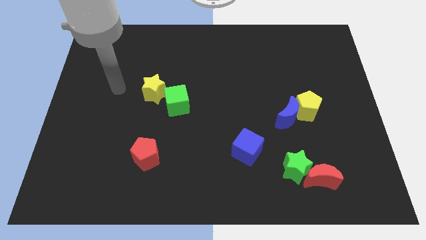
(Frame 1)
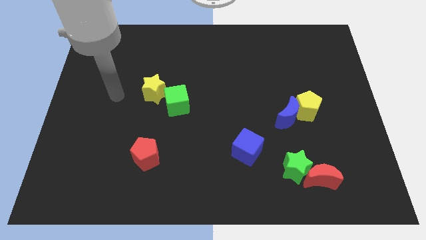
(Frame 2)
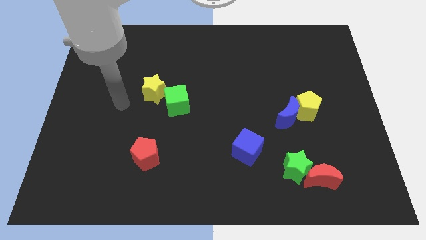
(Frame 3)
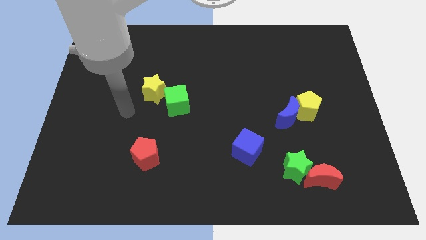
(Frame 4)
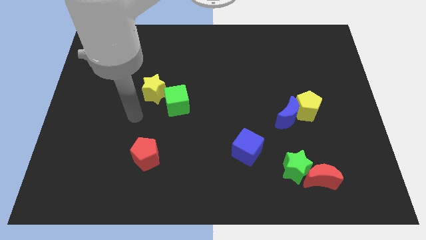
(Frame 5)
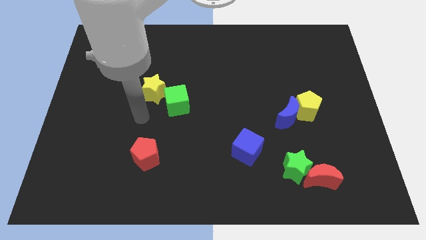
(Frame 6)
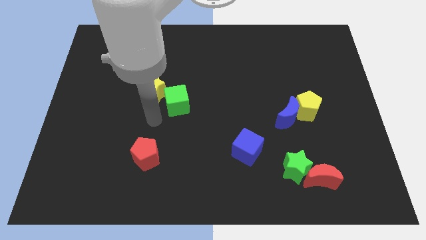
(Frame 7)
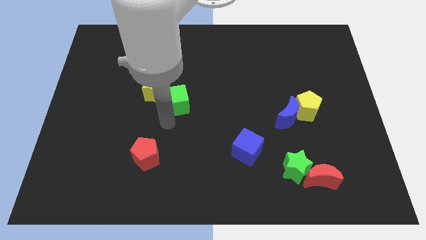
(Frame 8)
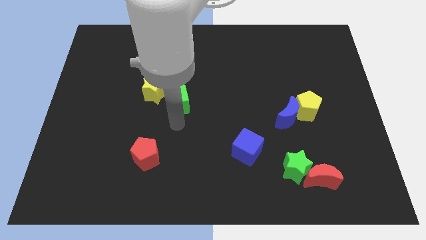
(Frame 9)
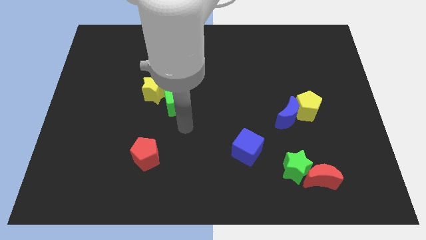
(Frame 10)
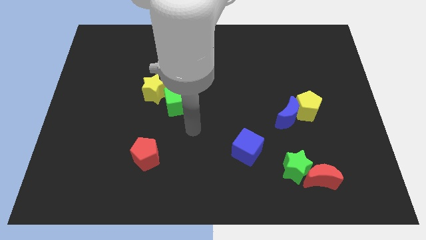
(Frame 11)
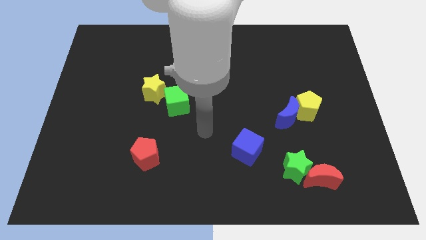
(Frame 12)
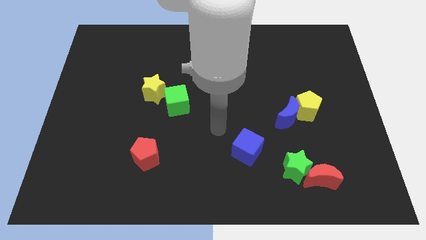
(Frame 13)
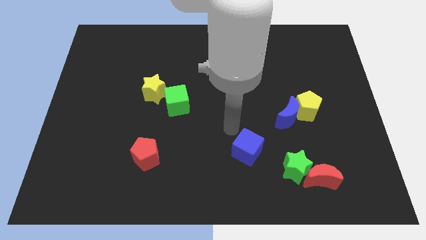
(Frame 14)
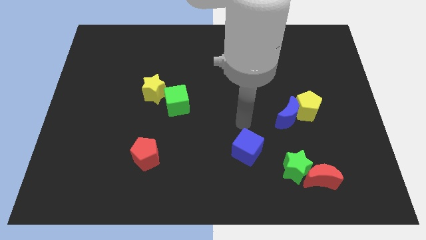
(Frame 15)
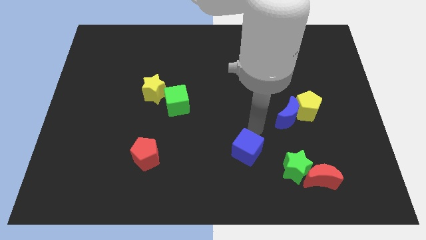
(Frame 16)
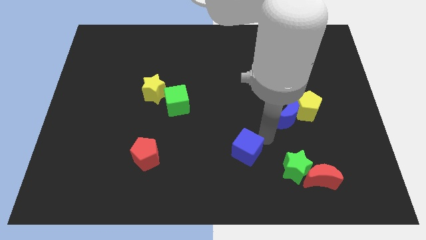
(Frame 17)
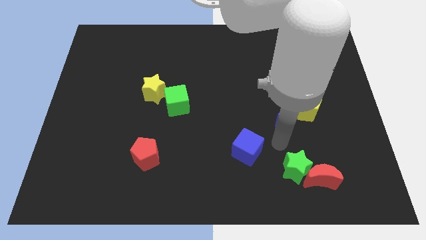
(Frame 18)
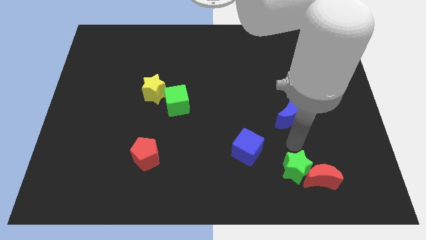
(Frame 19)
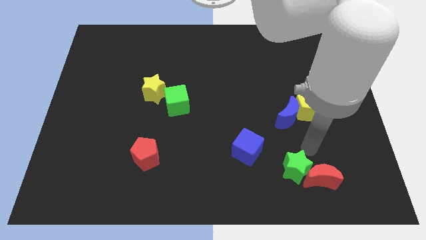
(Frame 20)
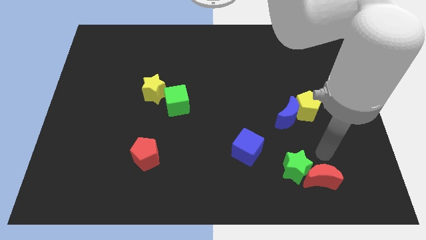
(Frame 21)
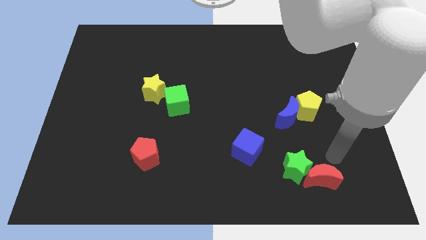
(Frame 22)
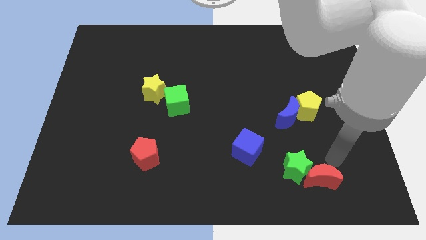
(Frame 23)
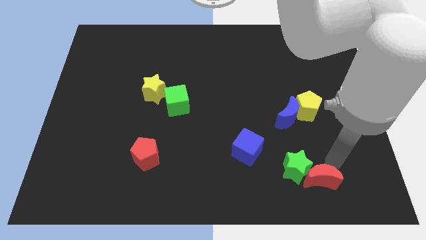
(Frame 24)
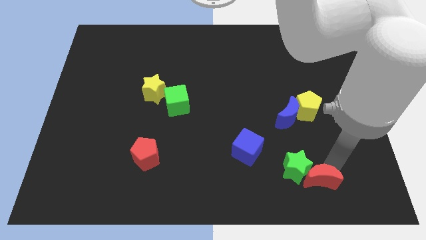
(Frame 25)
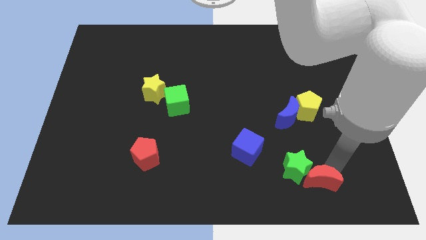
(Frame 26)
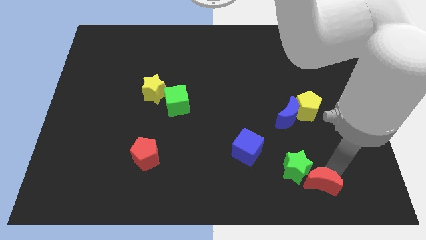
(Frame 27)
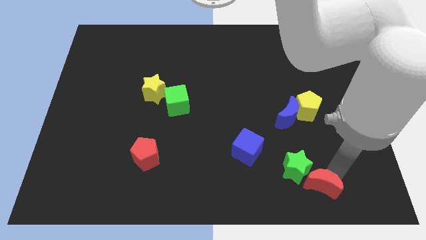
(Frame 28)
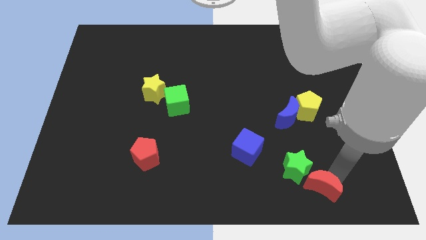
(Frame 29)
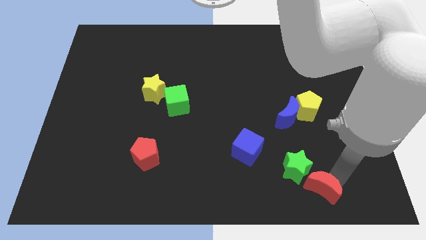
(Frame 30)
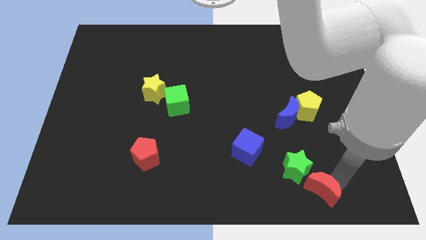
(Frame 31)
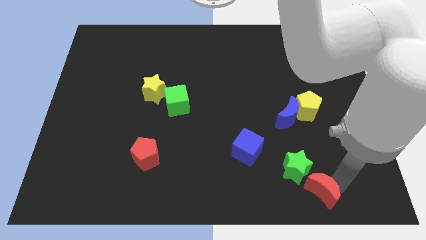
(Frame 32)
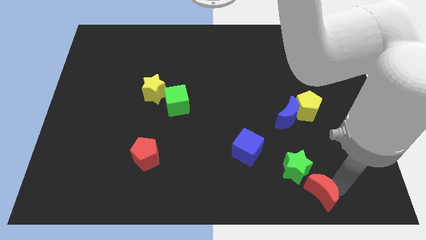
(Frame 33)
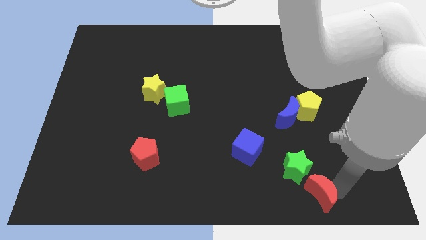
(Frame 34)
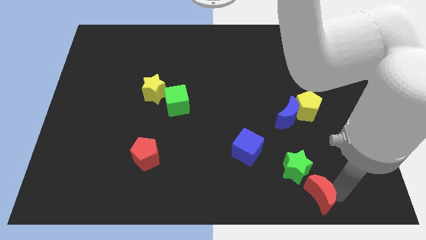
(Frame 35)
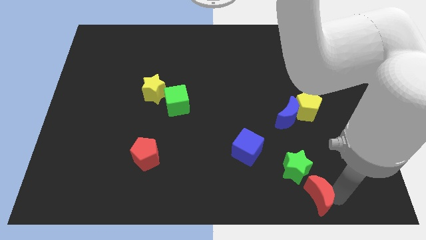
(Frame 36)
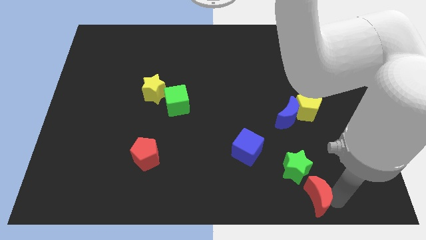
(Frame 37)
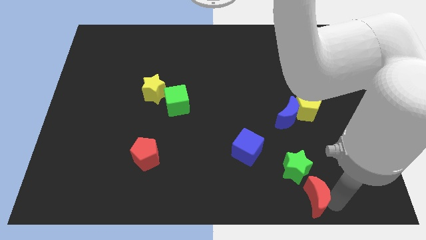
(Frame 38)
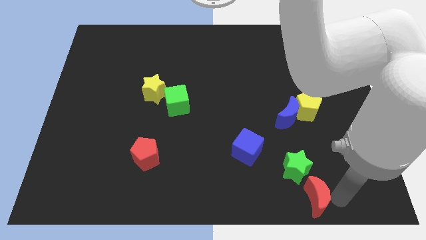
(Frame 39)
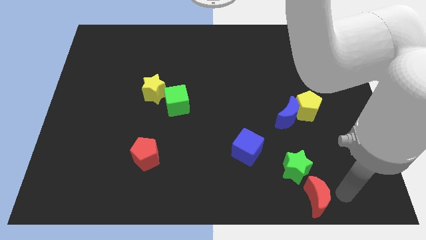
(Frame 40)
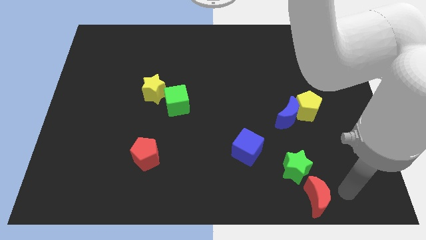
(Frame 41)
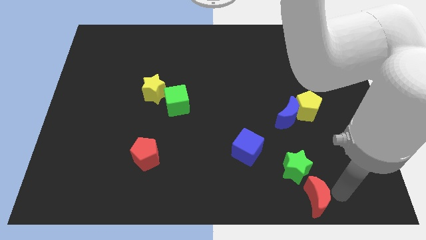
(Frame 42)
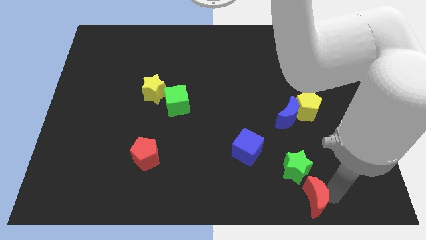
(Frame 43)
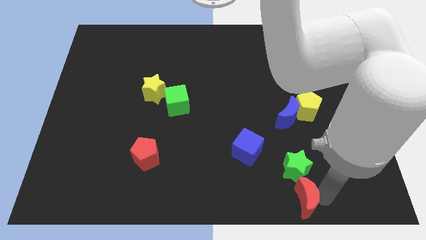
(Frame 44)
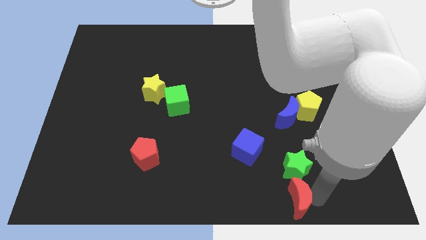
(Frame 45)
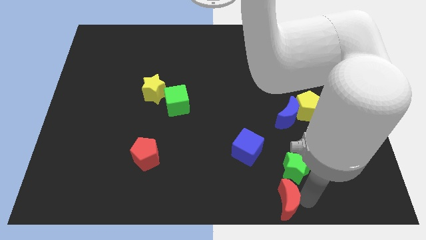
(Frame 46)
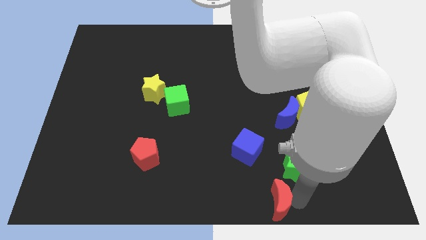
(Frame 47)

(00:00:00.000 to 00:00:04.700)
push the red moon to the bottom side

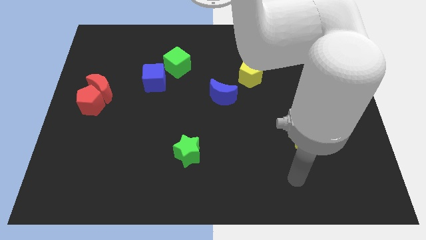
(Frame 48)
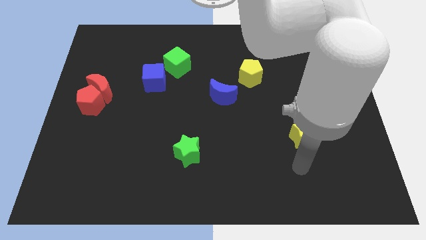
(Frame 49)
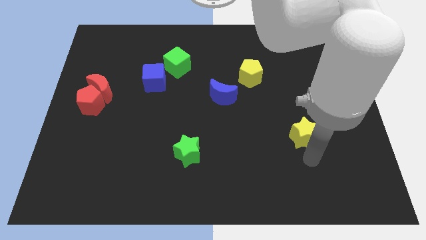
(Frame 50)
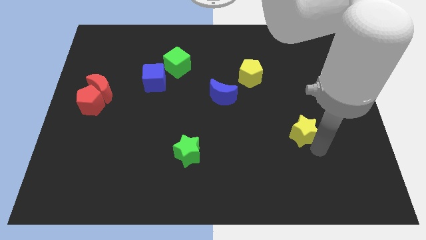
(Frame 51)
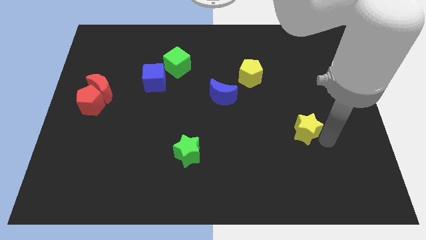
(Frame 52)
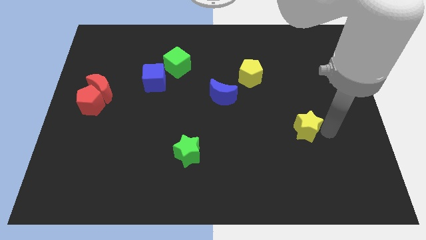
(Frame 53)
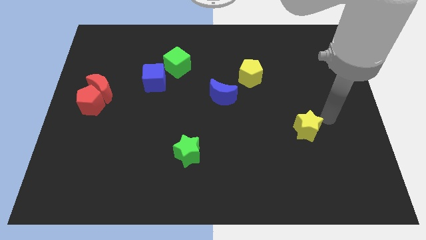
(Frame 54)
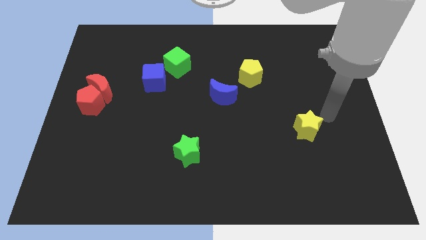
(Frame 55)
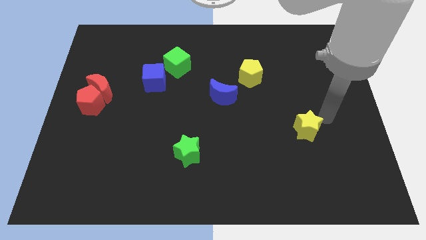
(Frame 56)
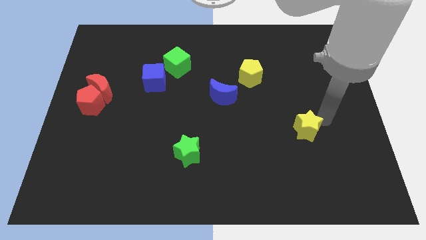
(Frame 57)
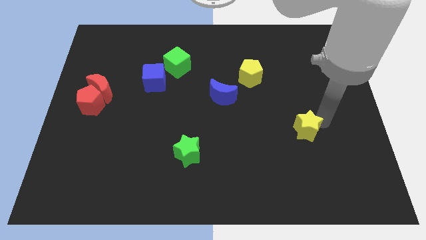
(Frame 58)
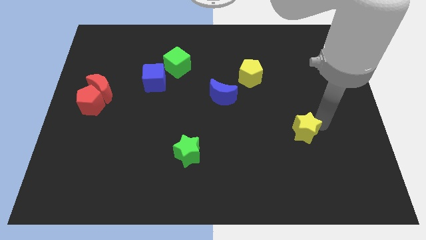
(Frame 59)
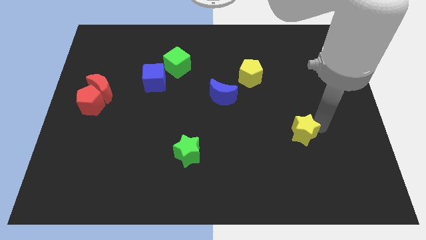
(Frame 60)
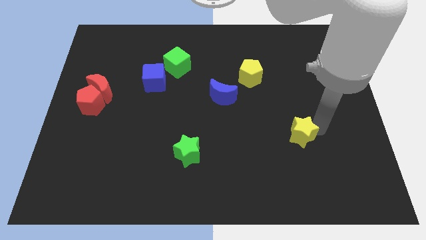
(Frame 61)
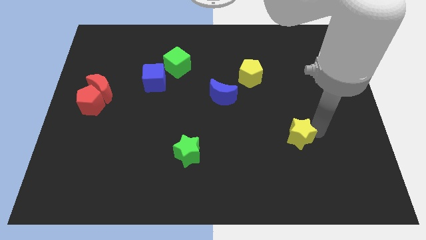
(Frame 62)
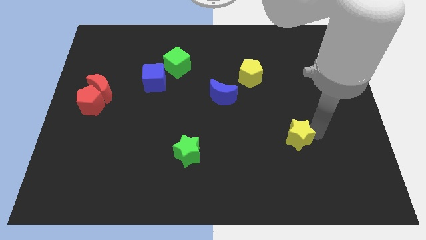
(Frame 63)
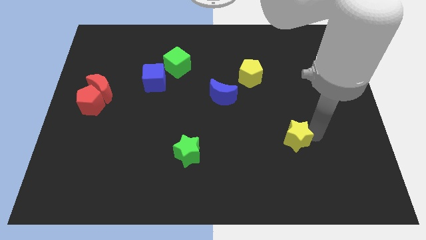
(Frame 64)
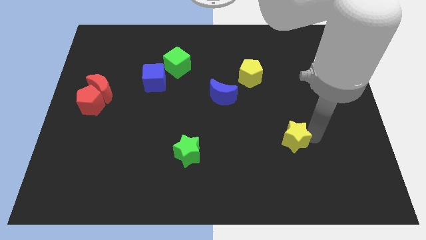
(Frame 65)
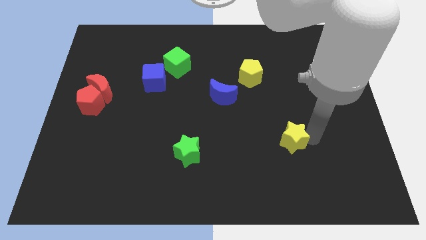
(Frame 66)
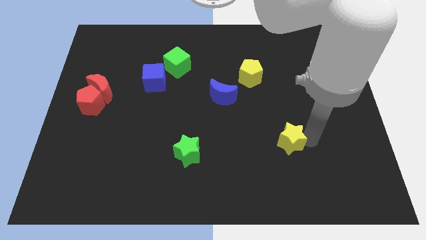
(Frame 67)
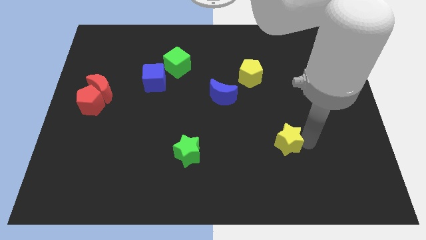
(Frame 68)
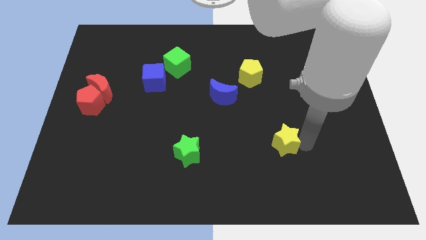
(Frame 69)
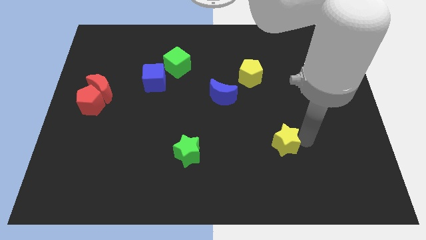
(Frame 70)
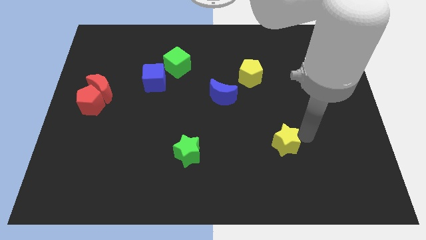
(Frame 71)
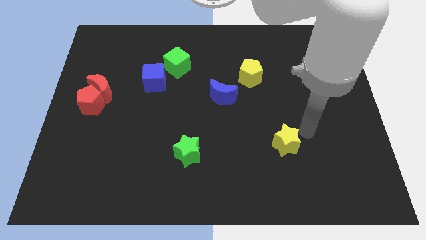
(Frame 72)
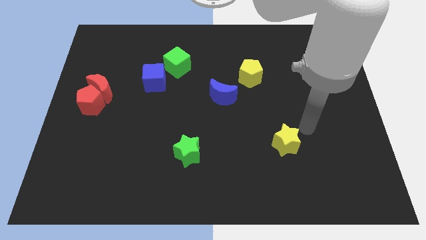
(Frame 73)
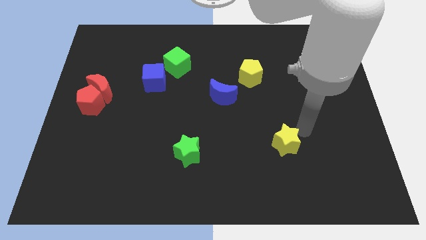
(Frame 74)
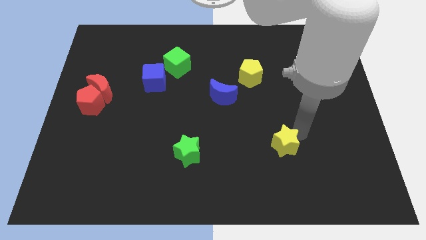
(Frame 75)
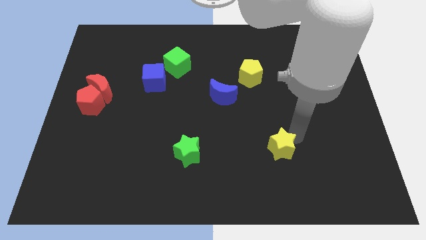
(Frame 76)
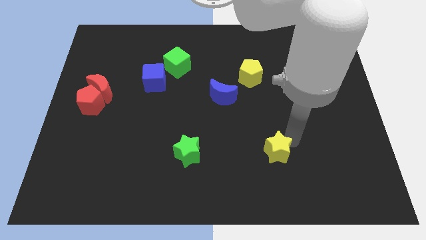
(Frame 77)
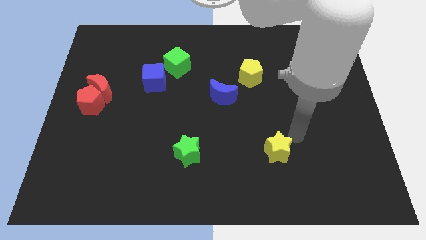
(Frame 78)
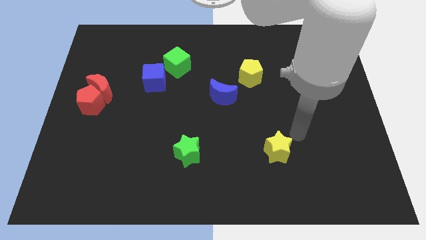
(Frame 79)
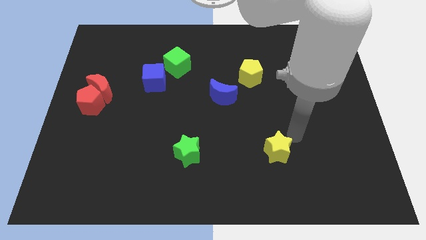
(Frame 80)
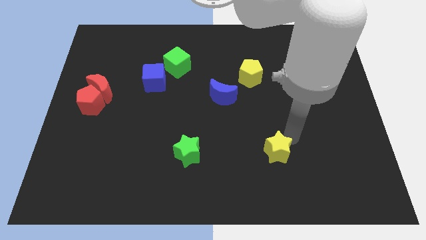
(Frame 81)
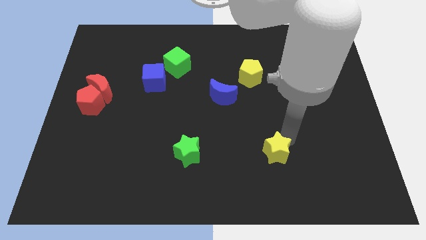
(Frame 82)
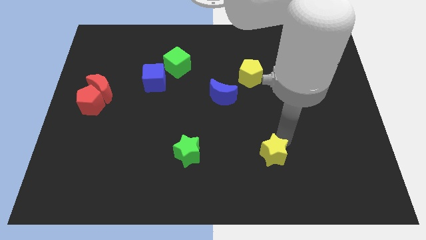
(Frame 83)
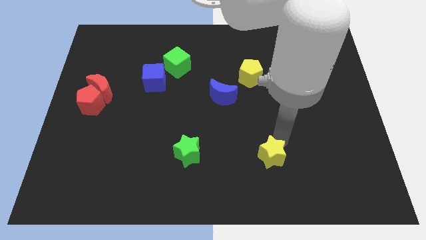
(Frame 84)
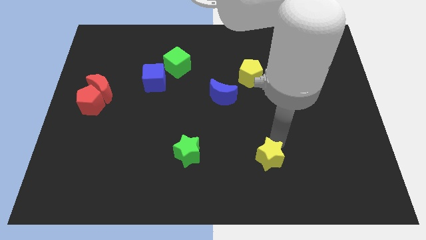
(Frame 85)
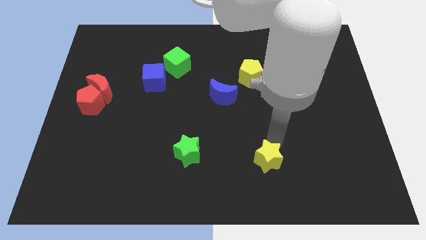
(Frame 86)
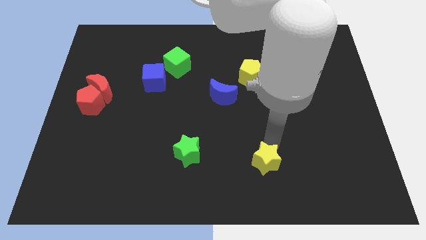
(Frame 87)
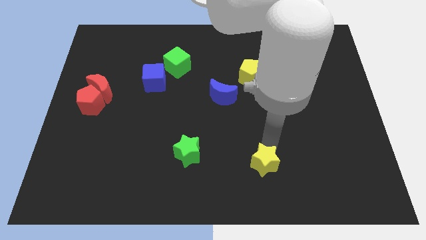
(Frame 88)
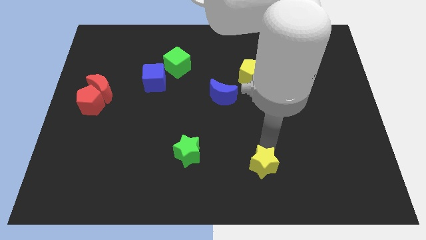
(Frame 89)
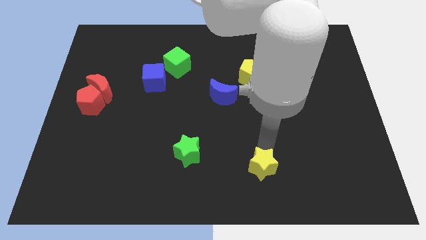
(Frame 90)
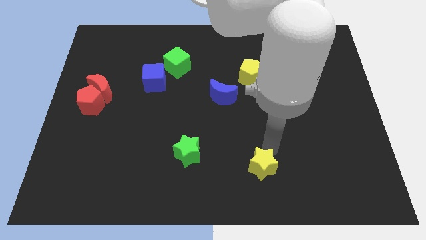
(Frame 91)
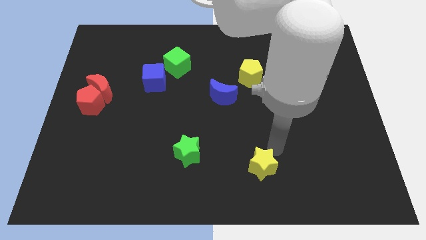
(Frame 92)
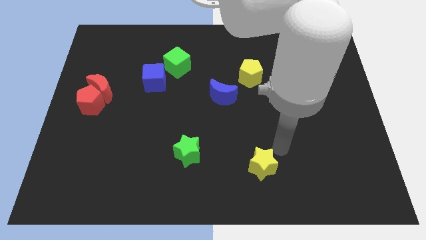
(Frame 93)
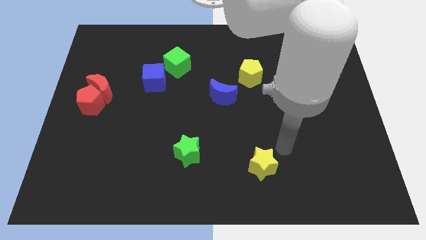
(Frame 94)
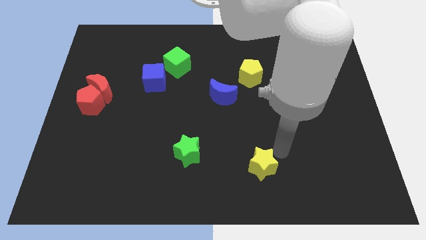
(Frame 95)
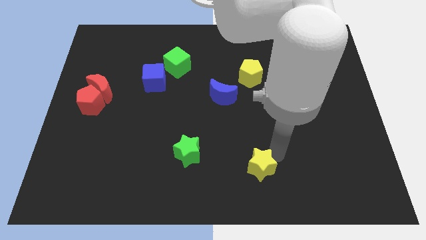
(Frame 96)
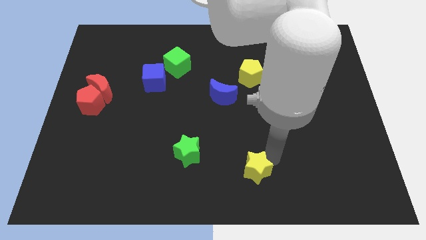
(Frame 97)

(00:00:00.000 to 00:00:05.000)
push the yellow star to the bottom side
